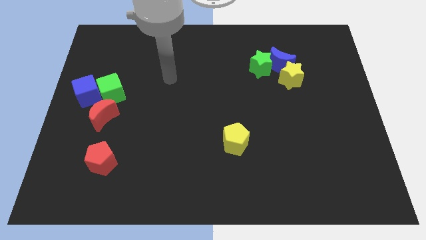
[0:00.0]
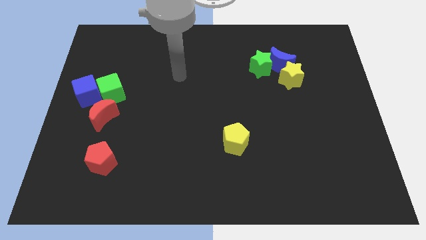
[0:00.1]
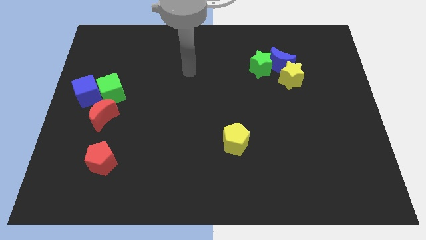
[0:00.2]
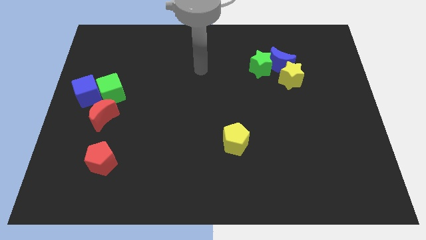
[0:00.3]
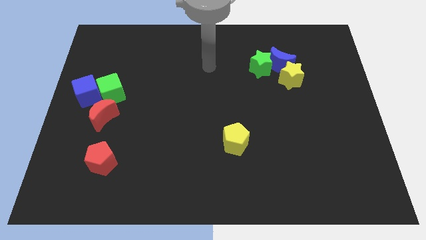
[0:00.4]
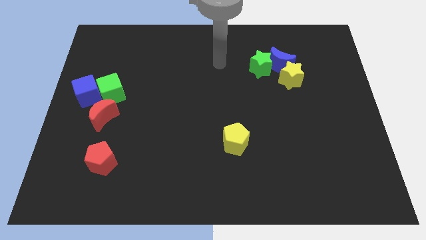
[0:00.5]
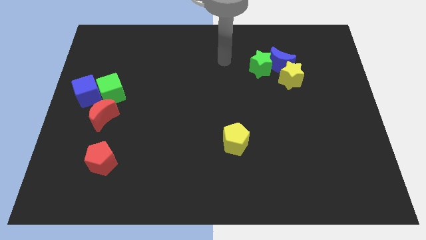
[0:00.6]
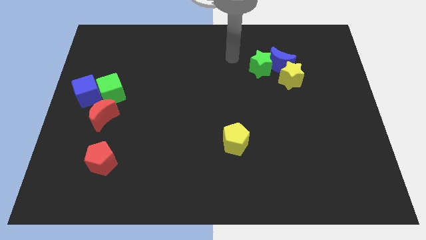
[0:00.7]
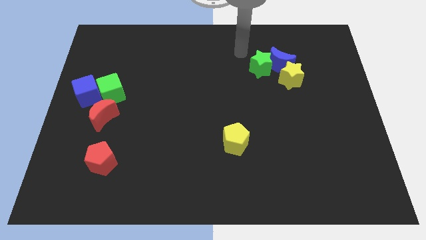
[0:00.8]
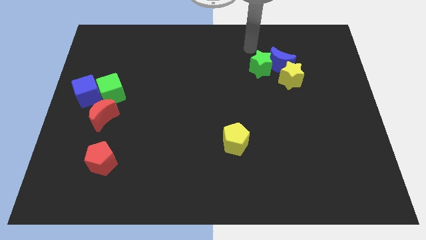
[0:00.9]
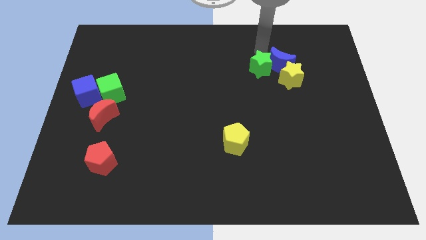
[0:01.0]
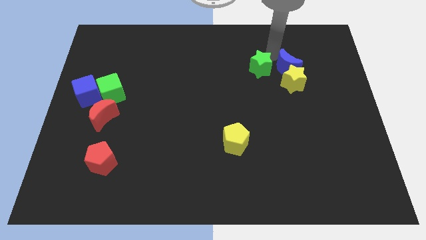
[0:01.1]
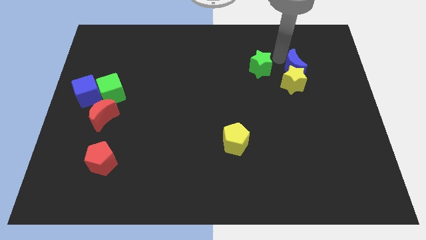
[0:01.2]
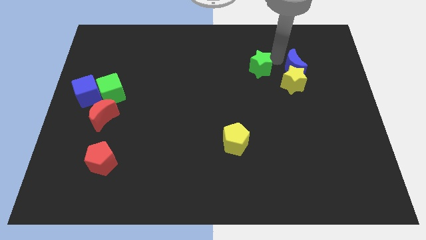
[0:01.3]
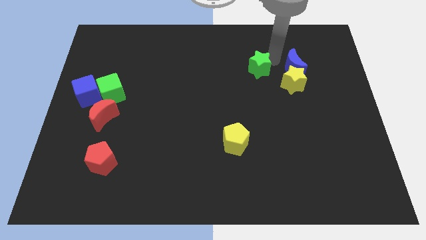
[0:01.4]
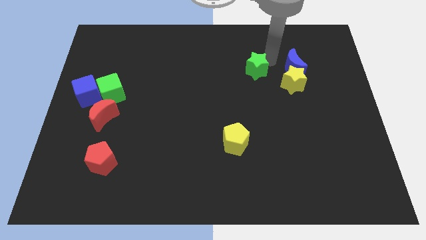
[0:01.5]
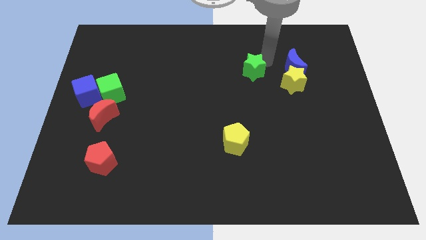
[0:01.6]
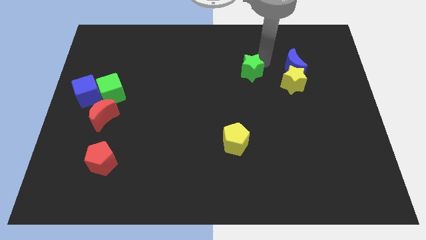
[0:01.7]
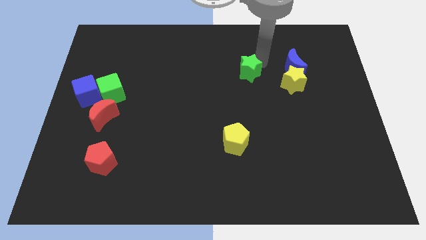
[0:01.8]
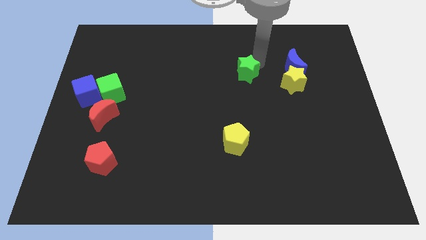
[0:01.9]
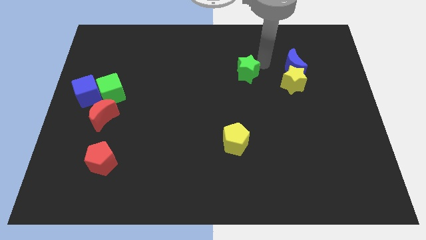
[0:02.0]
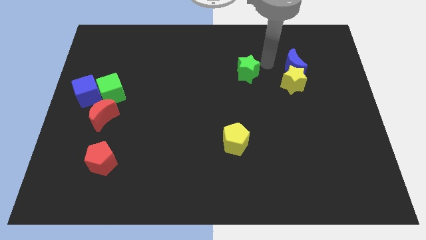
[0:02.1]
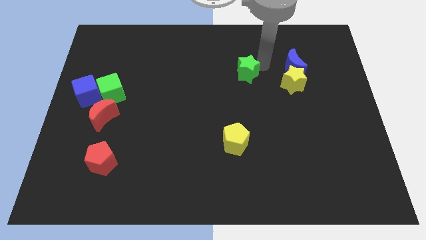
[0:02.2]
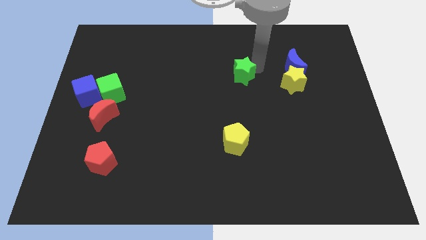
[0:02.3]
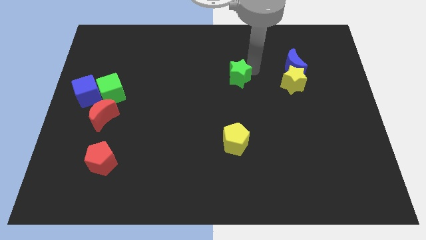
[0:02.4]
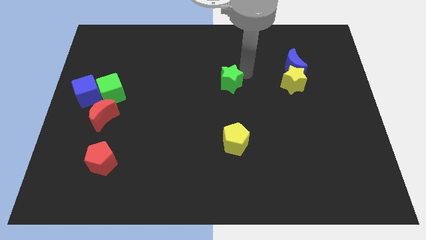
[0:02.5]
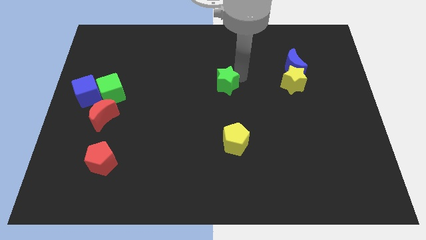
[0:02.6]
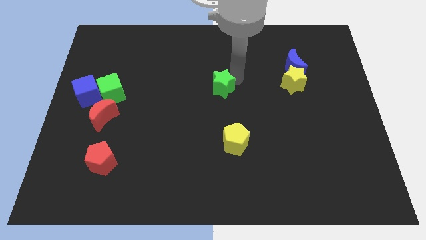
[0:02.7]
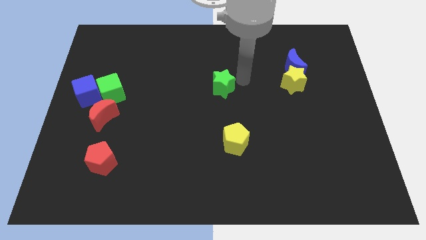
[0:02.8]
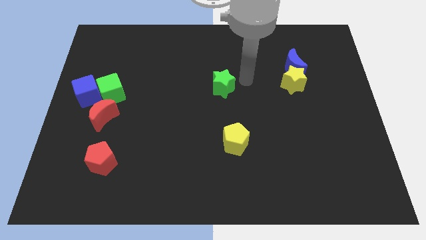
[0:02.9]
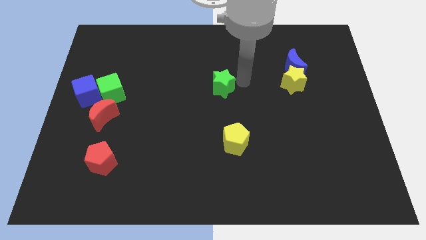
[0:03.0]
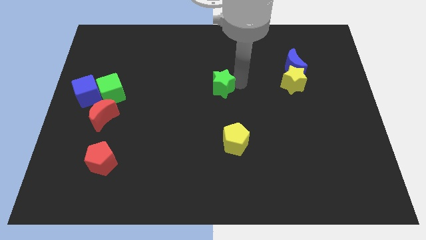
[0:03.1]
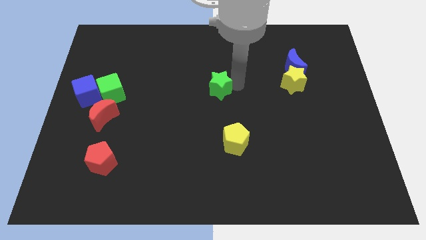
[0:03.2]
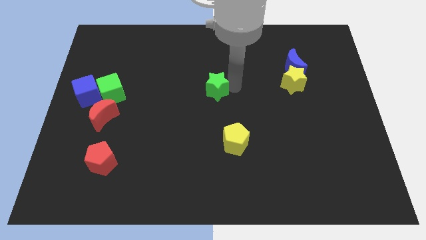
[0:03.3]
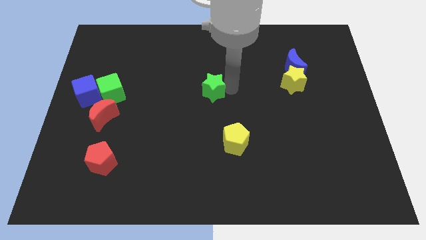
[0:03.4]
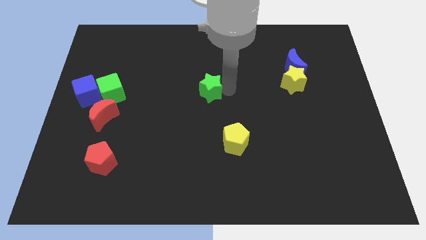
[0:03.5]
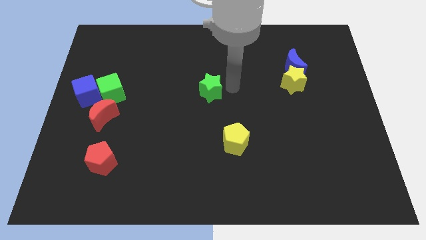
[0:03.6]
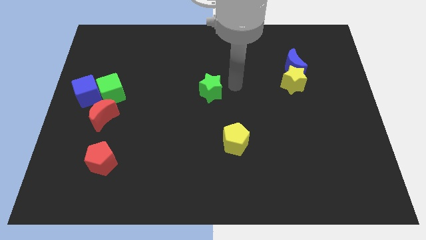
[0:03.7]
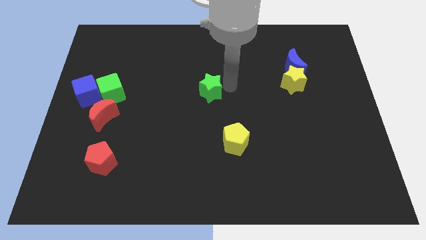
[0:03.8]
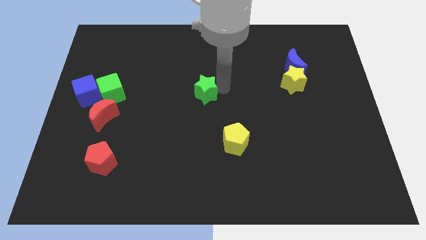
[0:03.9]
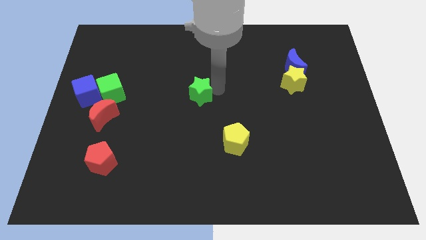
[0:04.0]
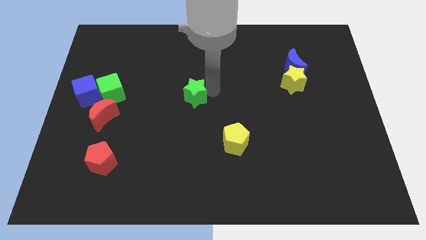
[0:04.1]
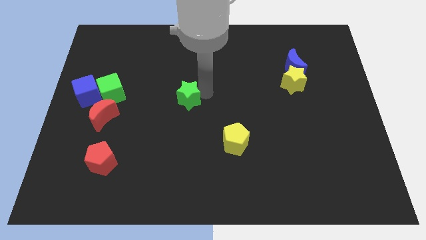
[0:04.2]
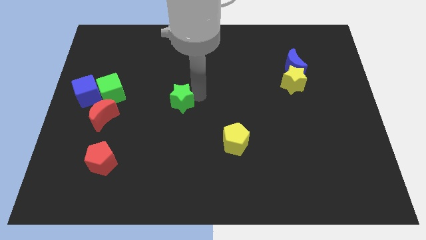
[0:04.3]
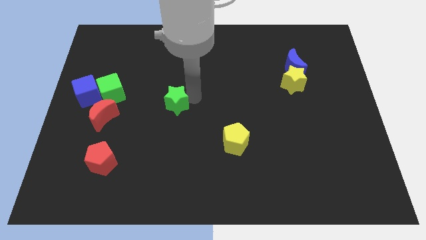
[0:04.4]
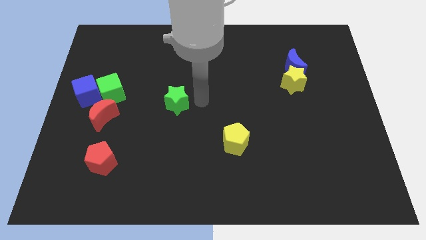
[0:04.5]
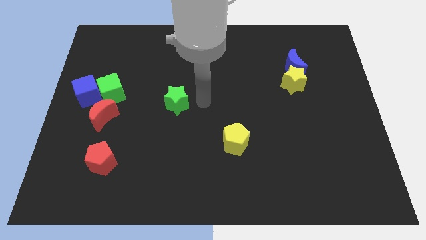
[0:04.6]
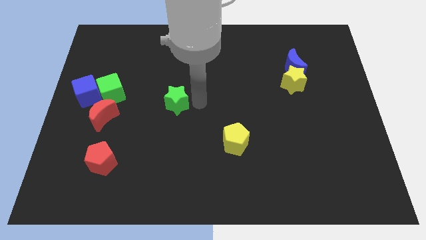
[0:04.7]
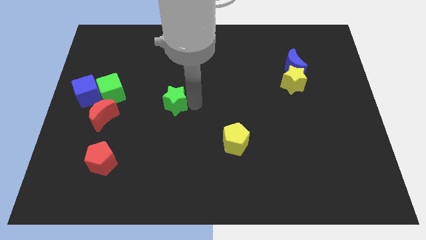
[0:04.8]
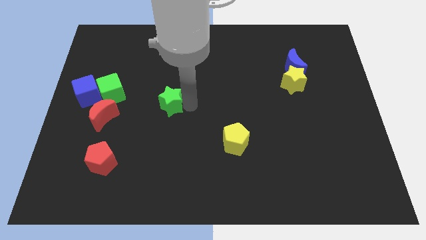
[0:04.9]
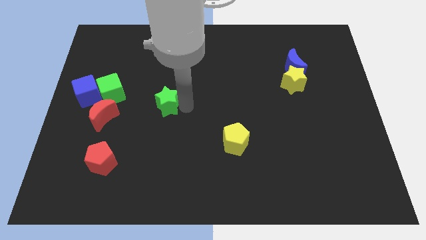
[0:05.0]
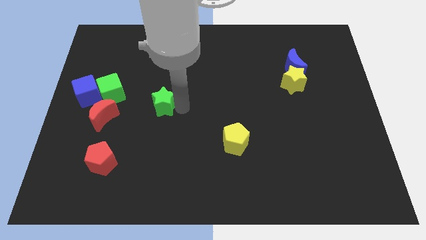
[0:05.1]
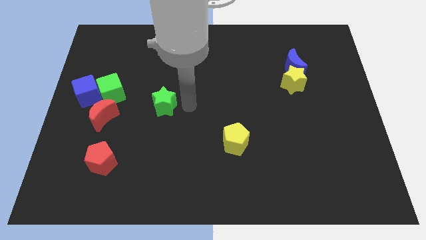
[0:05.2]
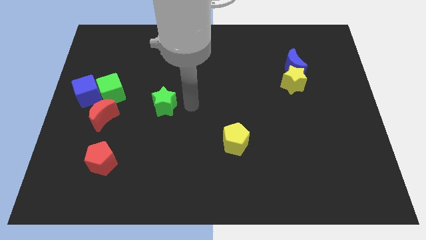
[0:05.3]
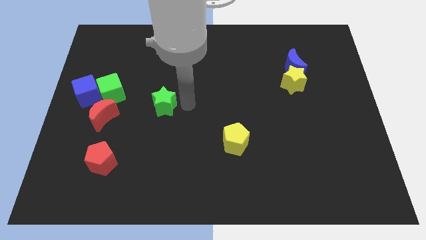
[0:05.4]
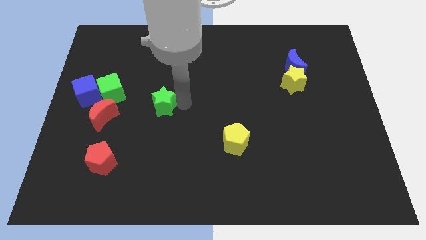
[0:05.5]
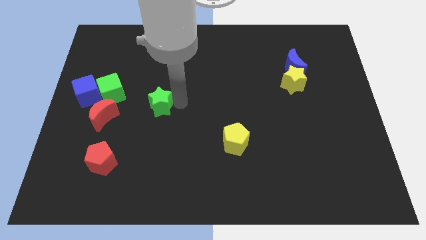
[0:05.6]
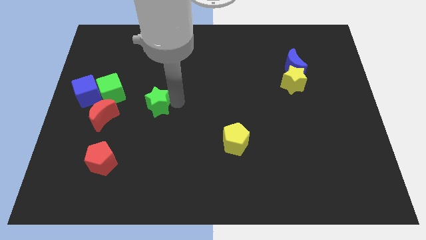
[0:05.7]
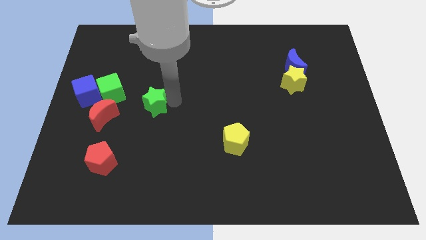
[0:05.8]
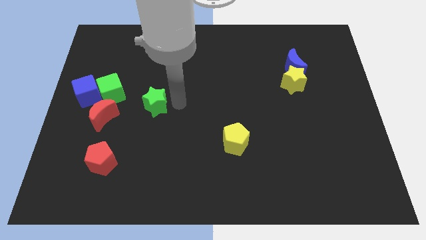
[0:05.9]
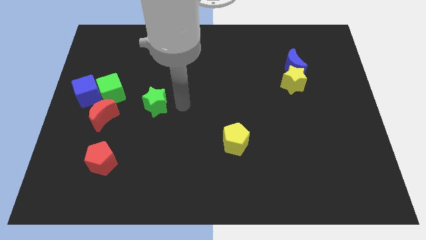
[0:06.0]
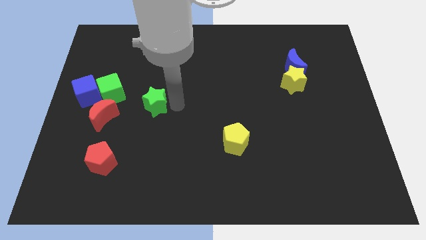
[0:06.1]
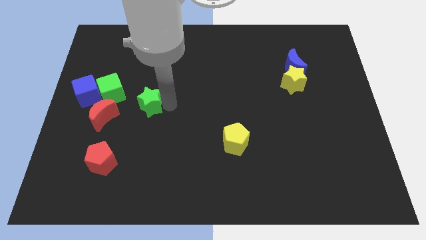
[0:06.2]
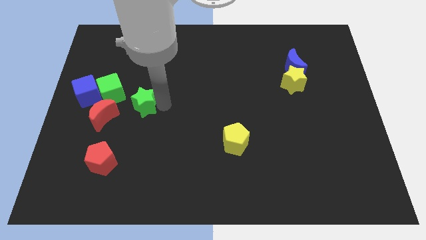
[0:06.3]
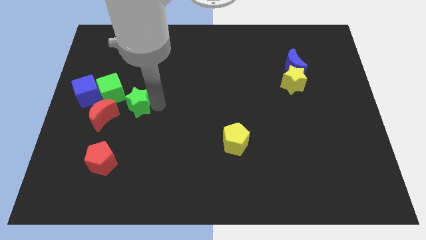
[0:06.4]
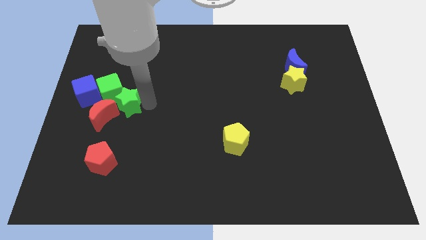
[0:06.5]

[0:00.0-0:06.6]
move the green star towards the red moon

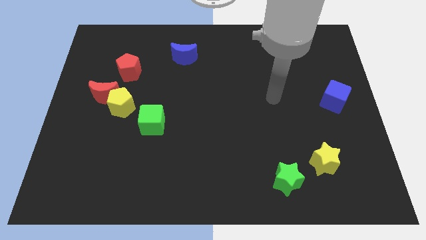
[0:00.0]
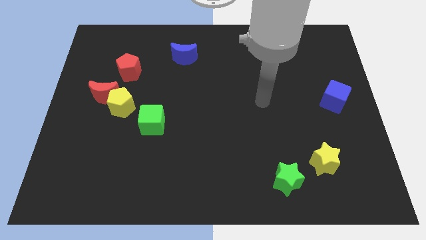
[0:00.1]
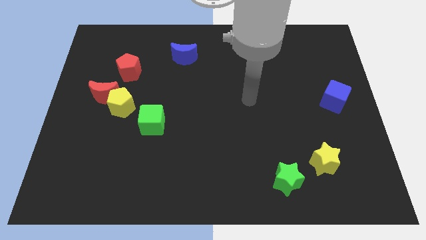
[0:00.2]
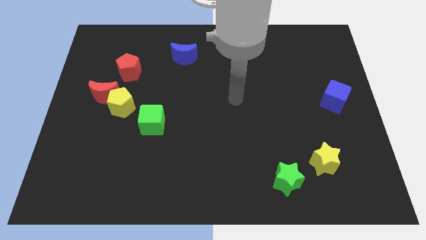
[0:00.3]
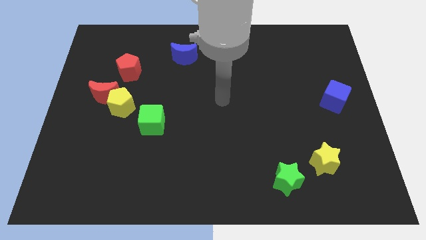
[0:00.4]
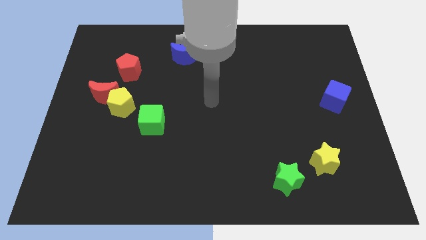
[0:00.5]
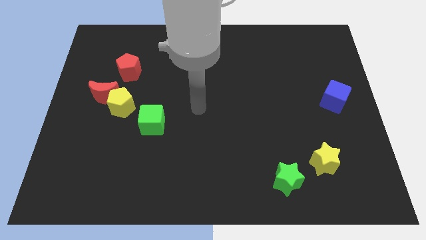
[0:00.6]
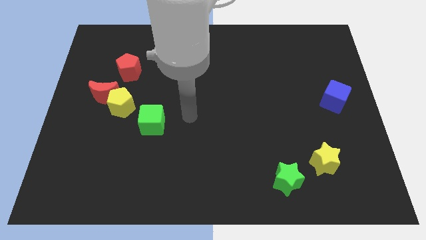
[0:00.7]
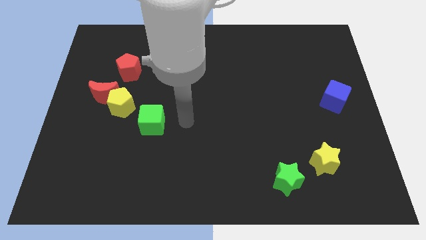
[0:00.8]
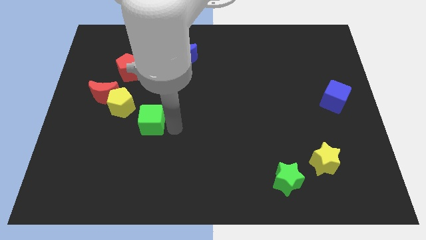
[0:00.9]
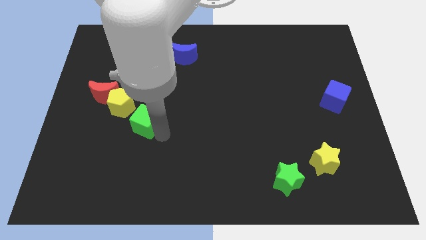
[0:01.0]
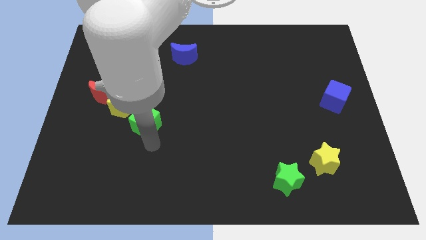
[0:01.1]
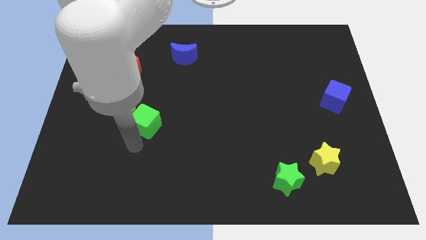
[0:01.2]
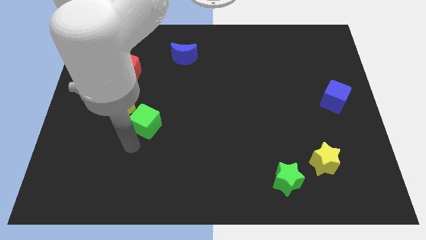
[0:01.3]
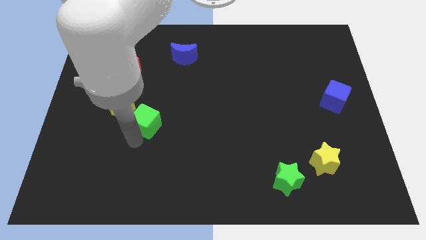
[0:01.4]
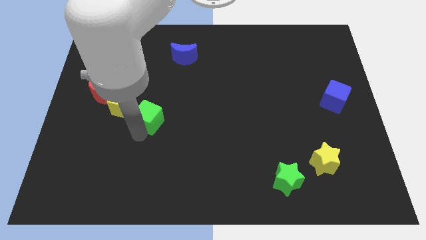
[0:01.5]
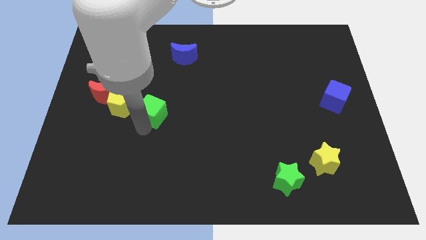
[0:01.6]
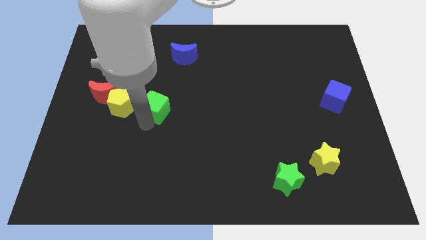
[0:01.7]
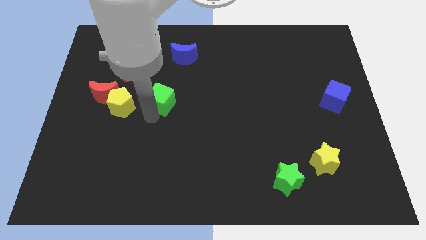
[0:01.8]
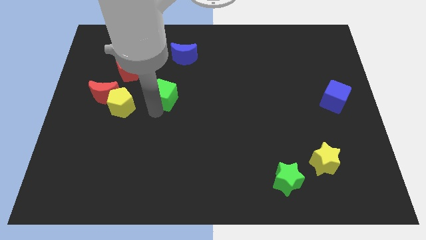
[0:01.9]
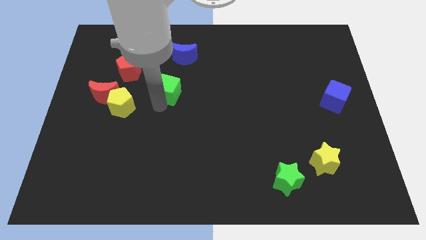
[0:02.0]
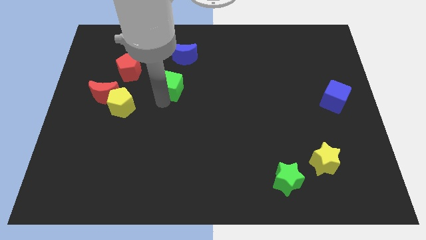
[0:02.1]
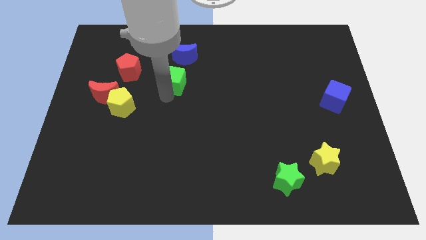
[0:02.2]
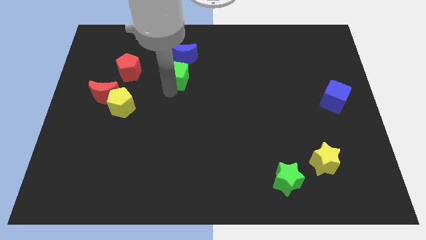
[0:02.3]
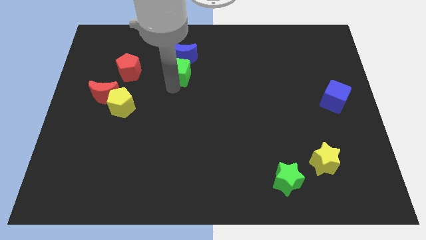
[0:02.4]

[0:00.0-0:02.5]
put the green cube towards the blue moon
